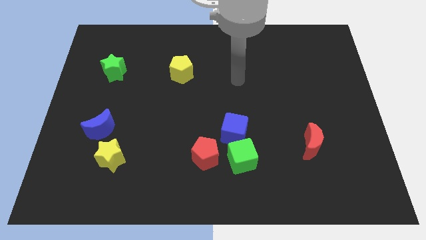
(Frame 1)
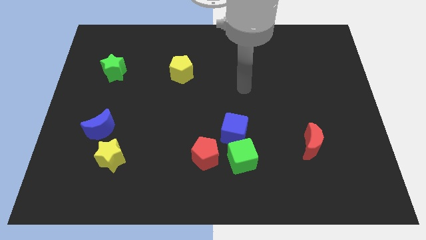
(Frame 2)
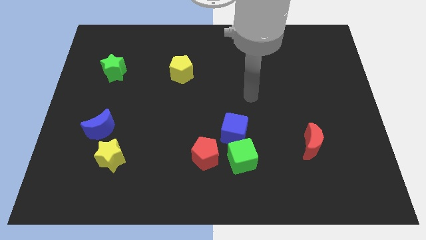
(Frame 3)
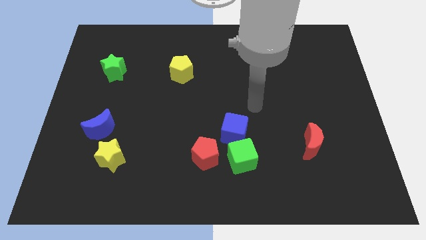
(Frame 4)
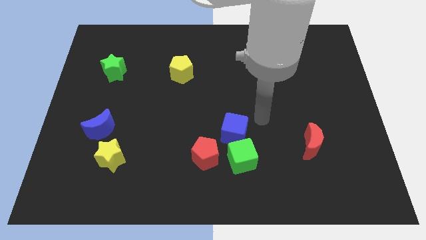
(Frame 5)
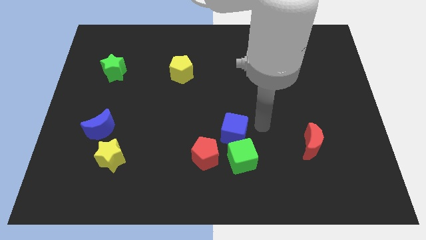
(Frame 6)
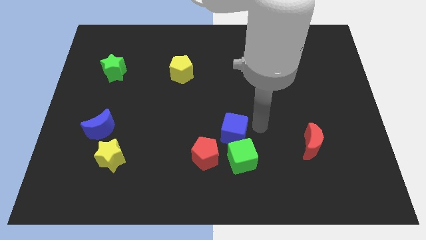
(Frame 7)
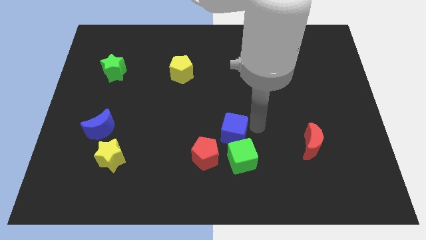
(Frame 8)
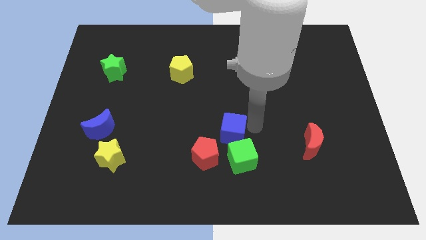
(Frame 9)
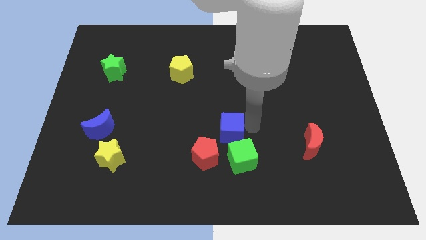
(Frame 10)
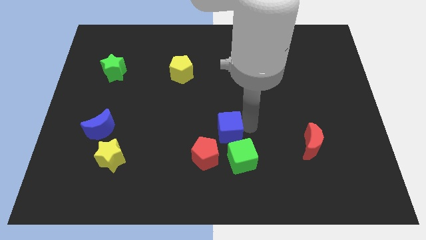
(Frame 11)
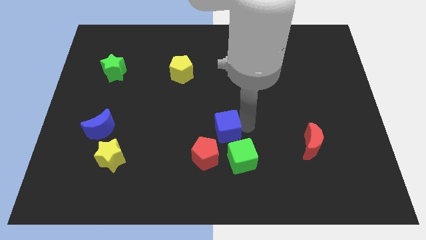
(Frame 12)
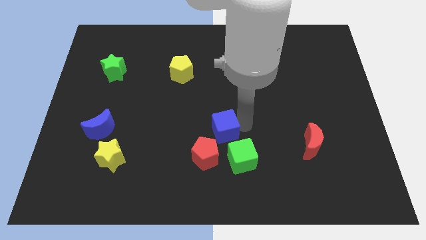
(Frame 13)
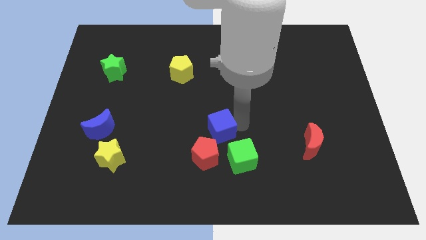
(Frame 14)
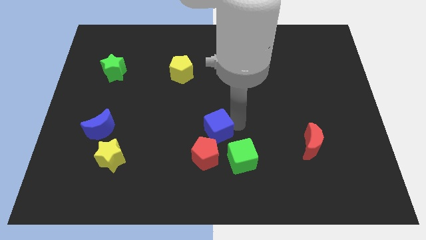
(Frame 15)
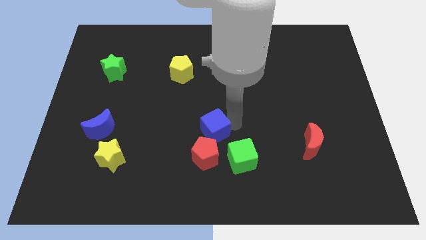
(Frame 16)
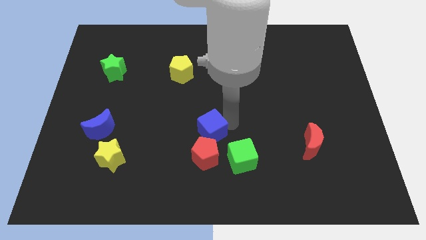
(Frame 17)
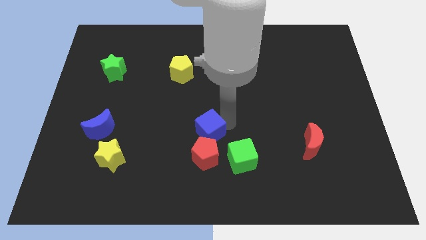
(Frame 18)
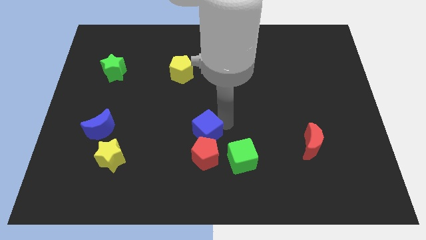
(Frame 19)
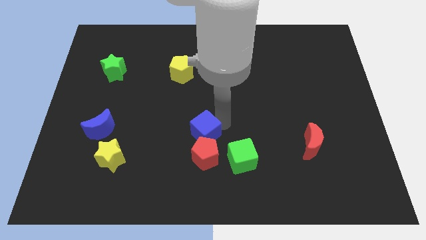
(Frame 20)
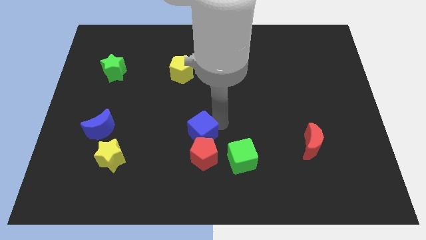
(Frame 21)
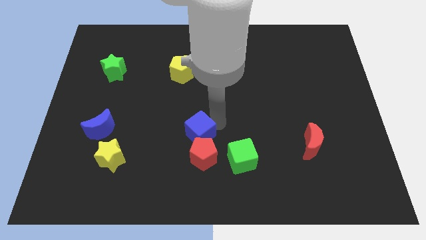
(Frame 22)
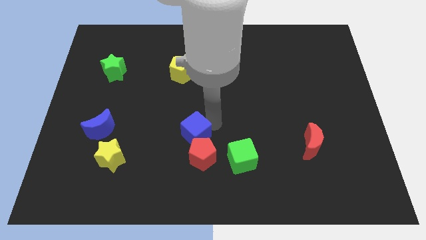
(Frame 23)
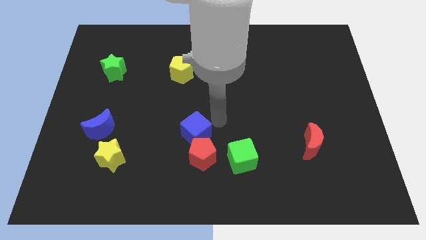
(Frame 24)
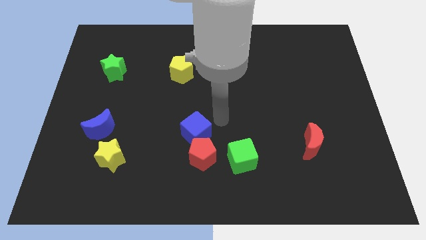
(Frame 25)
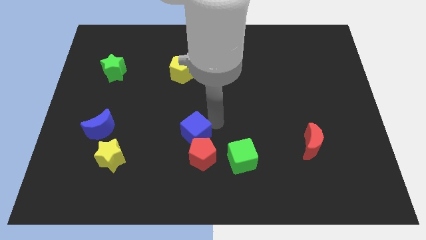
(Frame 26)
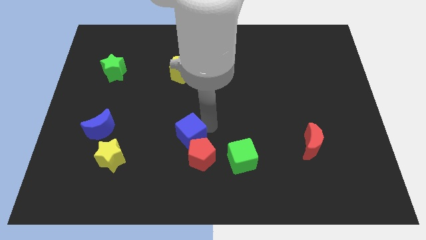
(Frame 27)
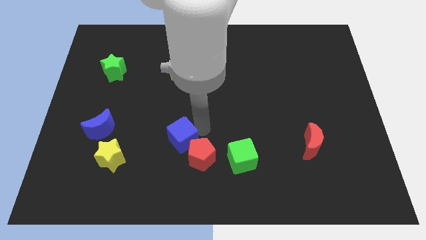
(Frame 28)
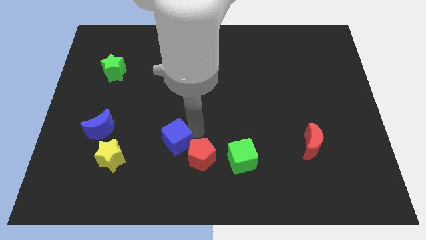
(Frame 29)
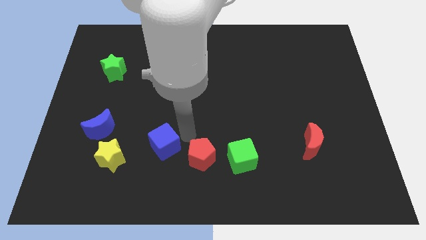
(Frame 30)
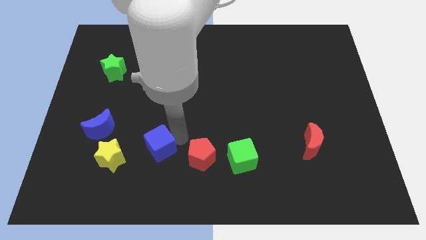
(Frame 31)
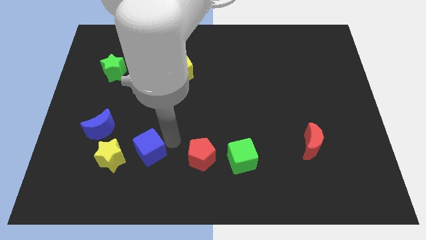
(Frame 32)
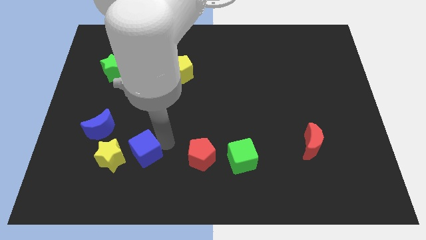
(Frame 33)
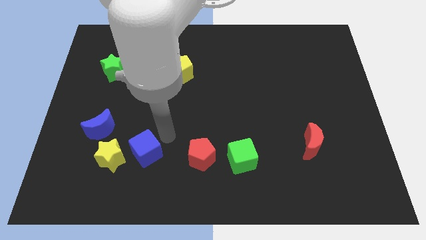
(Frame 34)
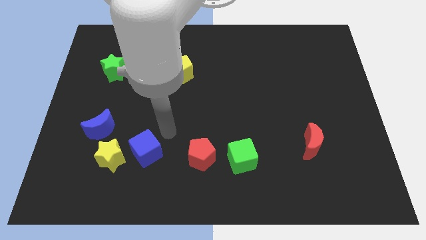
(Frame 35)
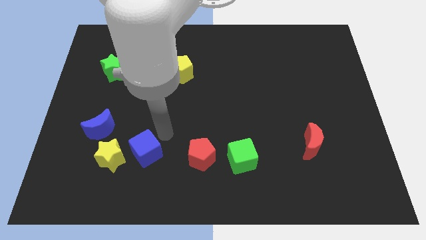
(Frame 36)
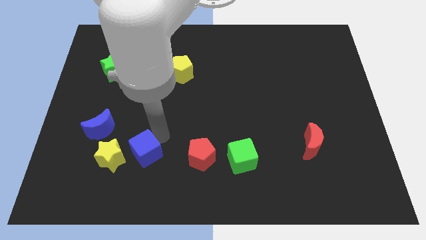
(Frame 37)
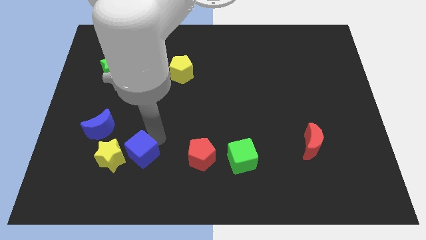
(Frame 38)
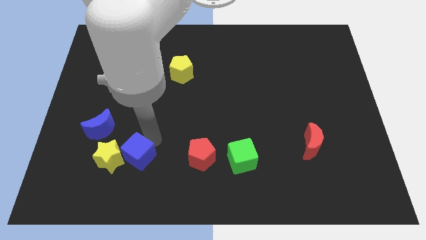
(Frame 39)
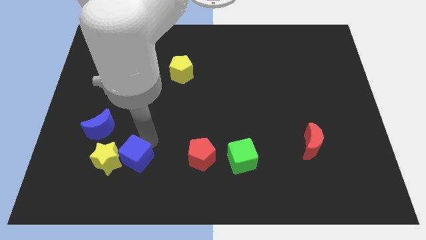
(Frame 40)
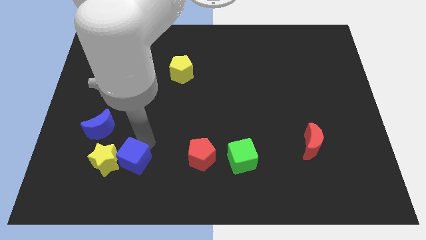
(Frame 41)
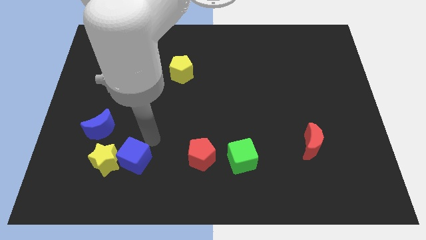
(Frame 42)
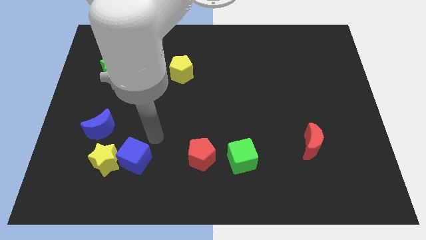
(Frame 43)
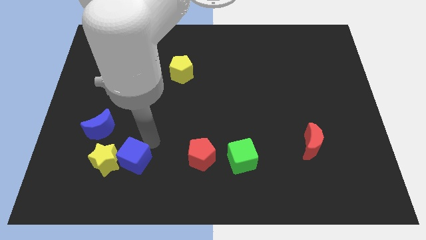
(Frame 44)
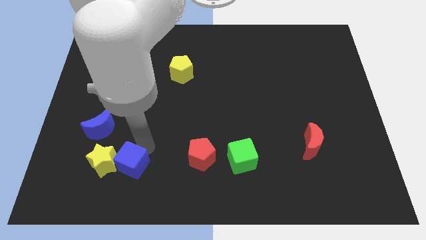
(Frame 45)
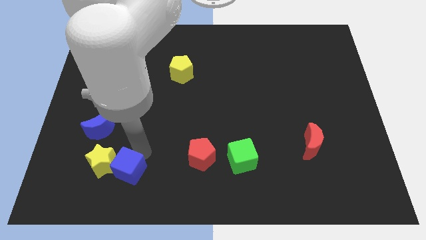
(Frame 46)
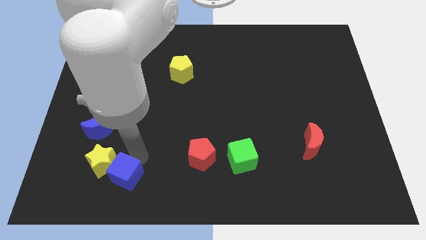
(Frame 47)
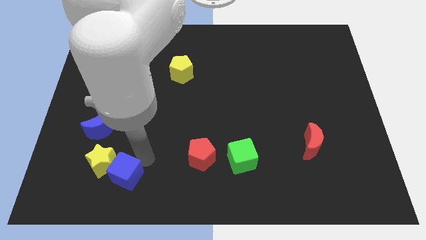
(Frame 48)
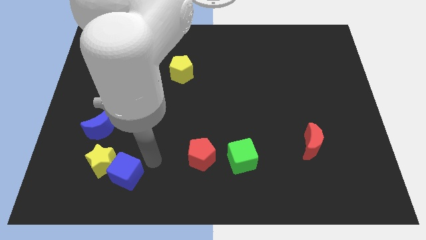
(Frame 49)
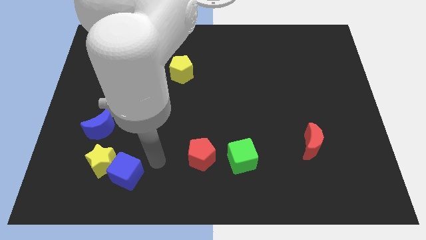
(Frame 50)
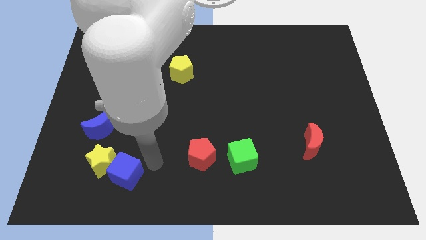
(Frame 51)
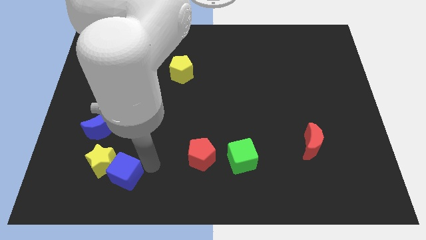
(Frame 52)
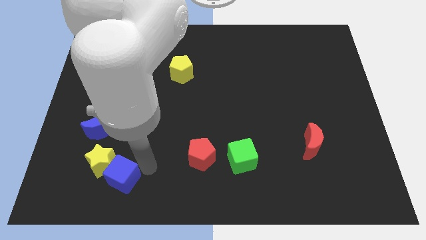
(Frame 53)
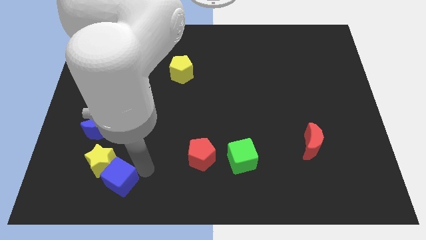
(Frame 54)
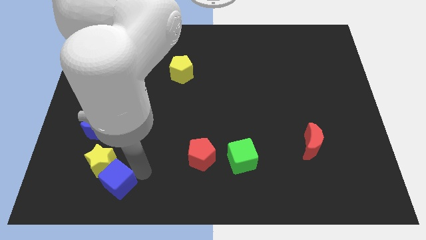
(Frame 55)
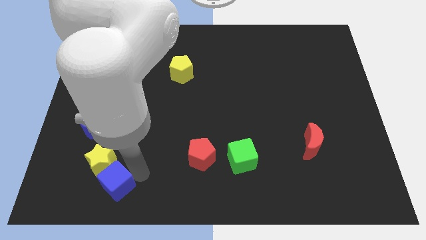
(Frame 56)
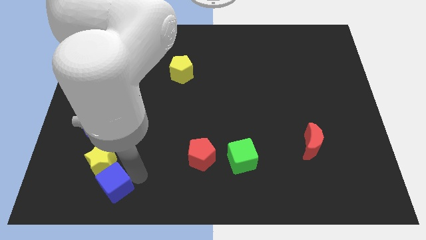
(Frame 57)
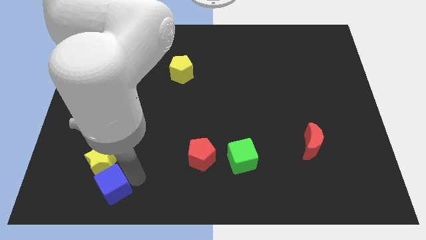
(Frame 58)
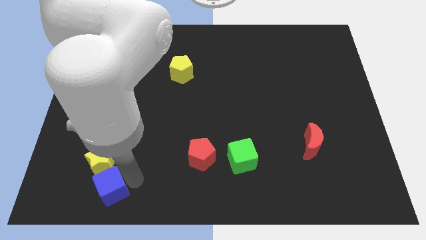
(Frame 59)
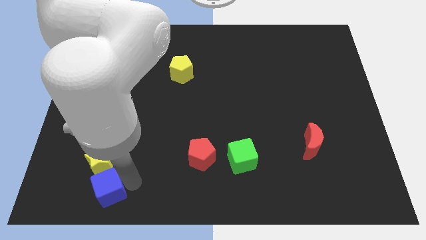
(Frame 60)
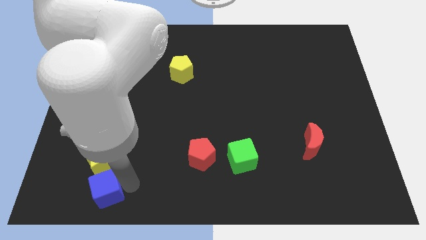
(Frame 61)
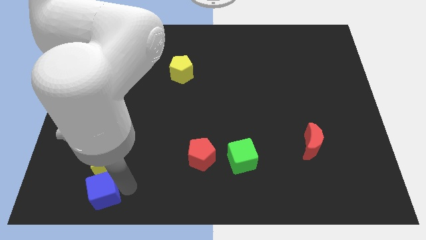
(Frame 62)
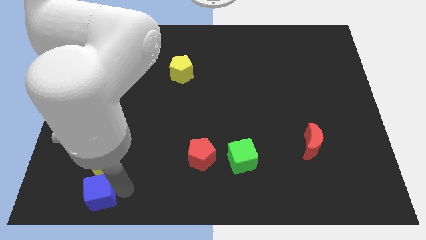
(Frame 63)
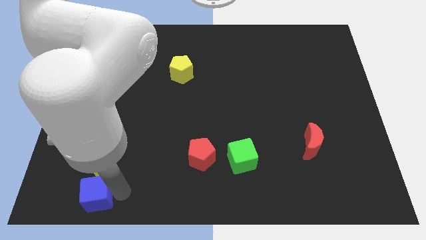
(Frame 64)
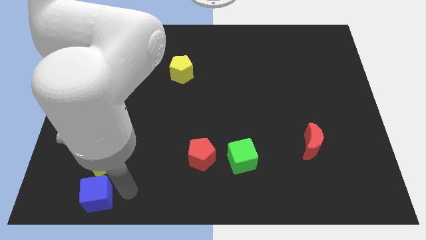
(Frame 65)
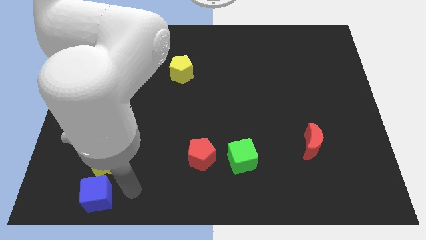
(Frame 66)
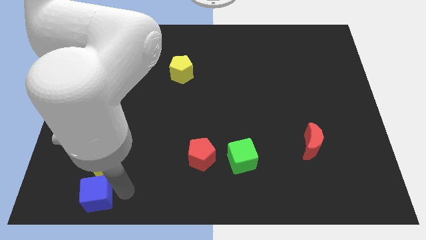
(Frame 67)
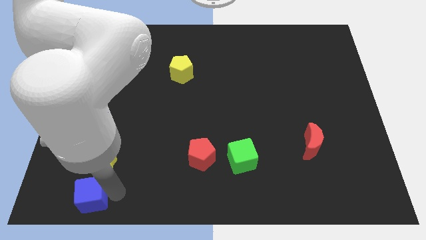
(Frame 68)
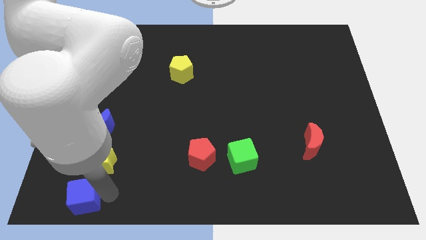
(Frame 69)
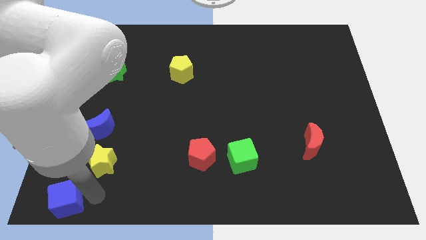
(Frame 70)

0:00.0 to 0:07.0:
push the blue cube to the bottom left
